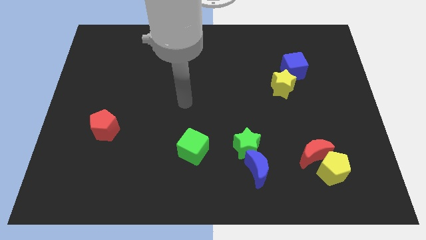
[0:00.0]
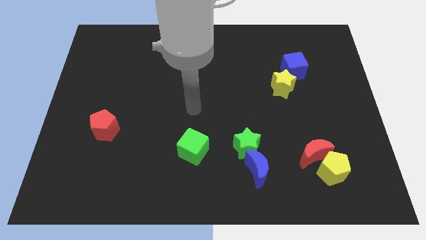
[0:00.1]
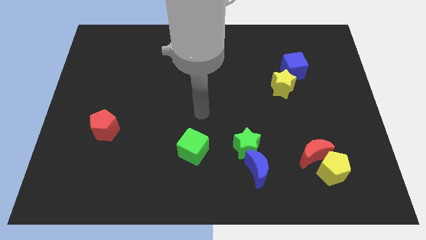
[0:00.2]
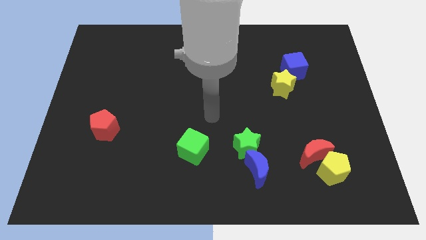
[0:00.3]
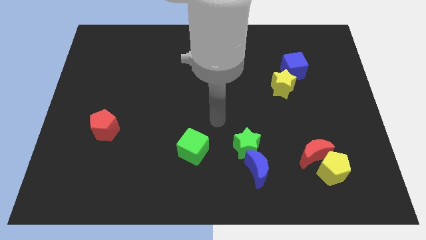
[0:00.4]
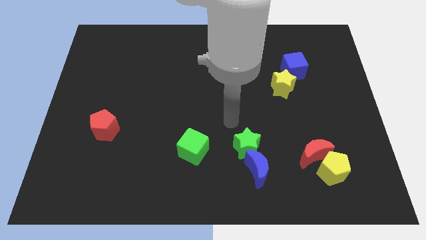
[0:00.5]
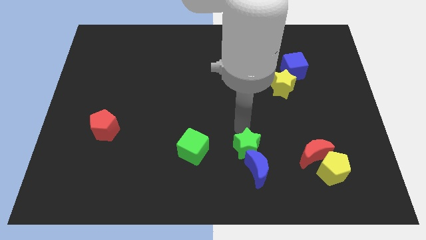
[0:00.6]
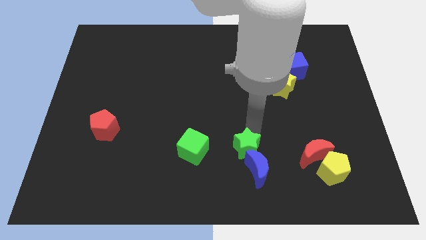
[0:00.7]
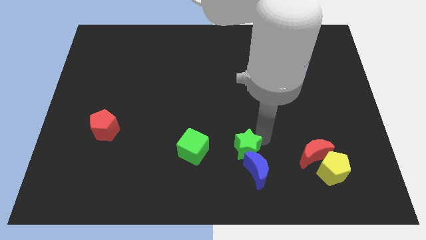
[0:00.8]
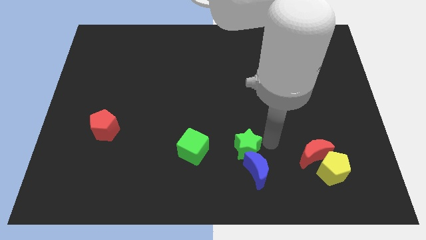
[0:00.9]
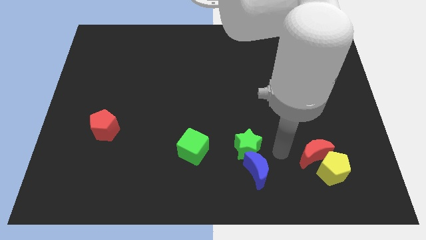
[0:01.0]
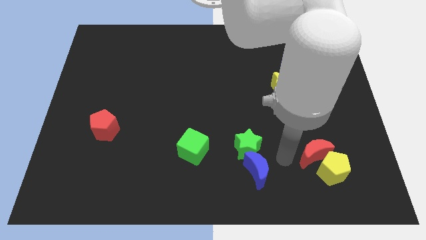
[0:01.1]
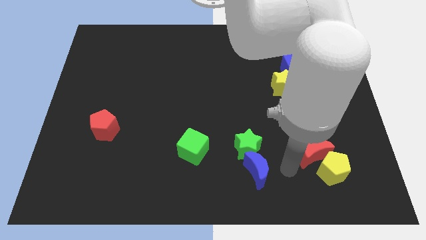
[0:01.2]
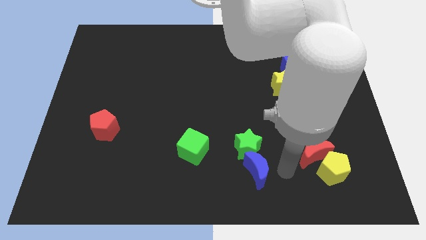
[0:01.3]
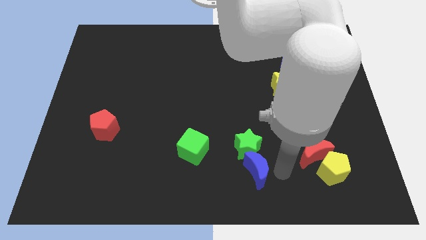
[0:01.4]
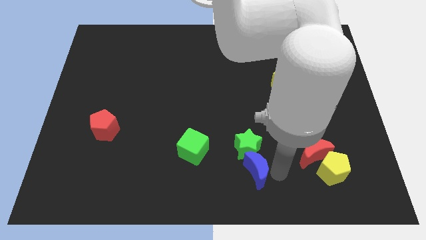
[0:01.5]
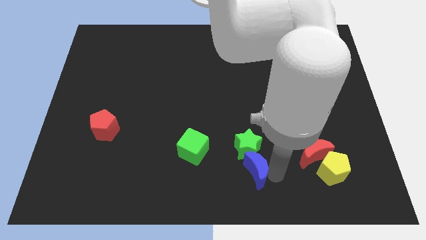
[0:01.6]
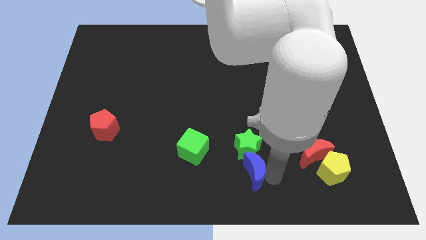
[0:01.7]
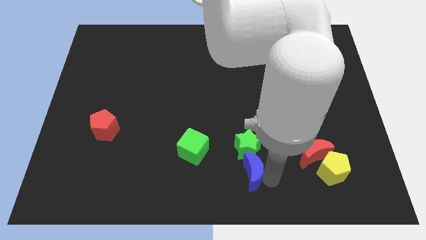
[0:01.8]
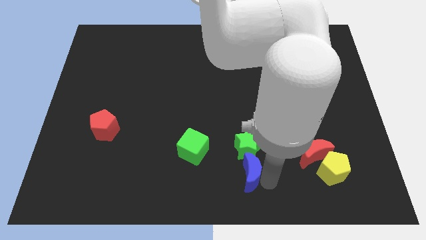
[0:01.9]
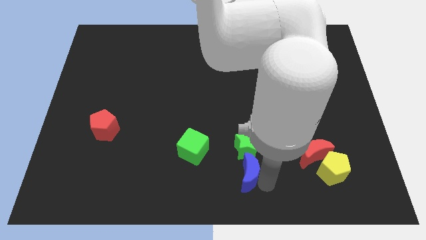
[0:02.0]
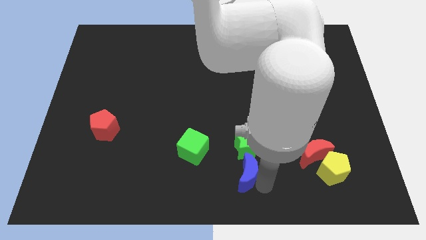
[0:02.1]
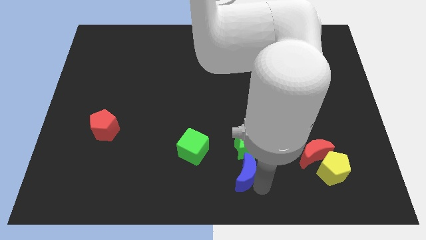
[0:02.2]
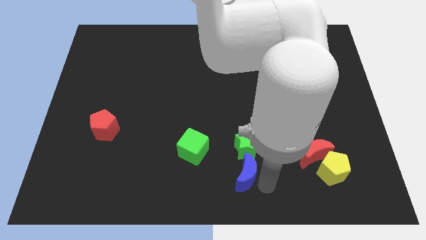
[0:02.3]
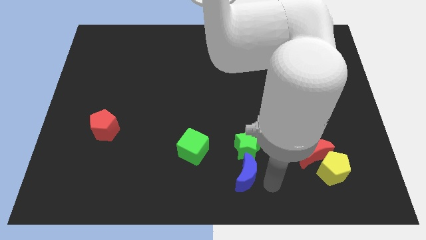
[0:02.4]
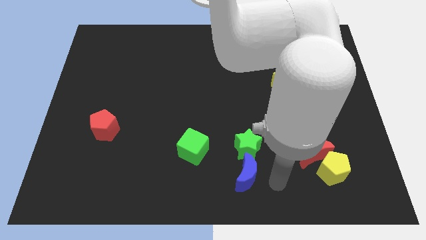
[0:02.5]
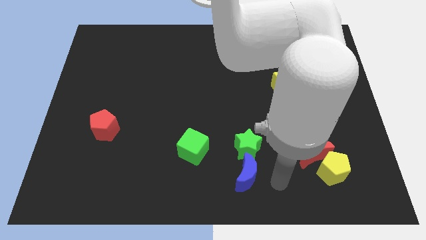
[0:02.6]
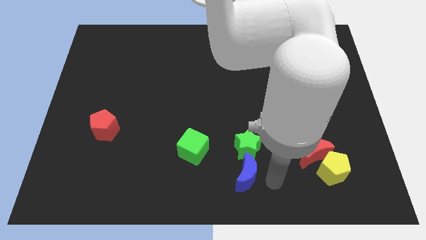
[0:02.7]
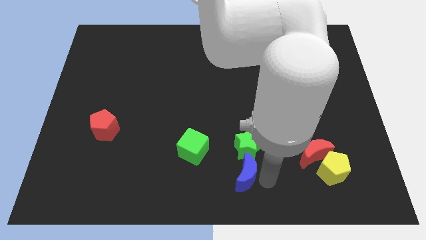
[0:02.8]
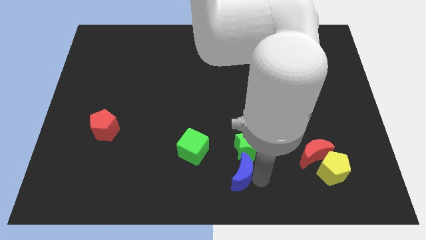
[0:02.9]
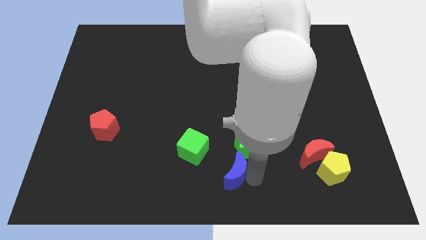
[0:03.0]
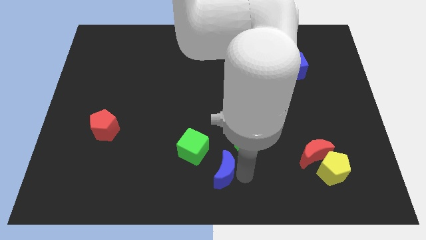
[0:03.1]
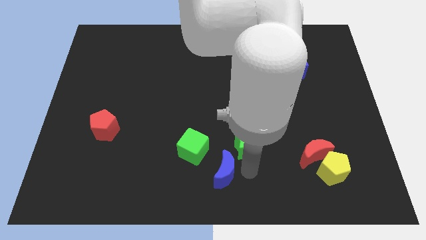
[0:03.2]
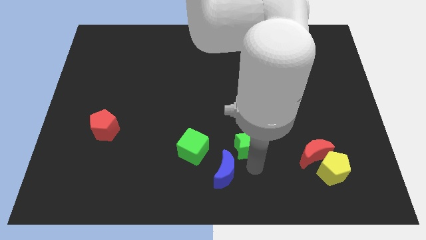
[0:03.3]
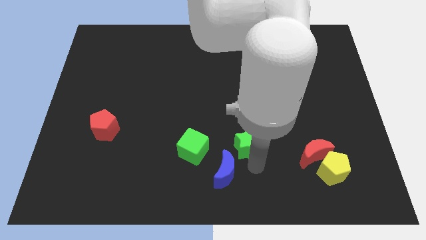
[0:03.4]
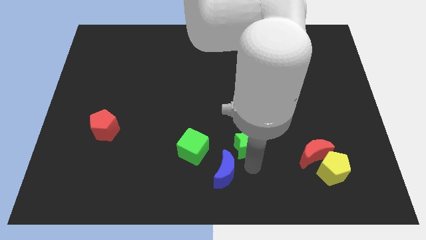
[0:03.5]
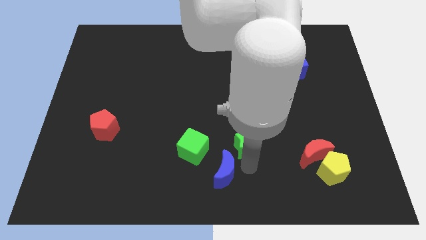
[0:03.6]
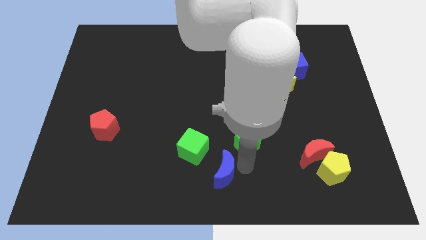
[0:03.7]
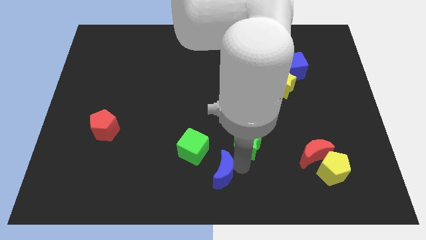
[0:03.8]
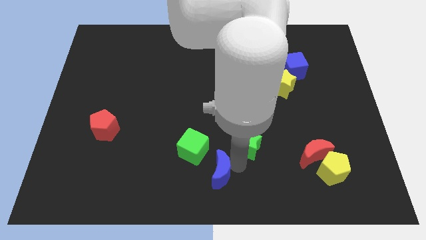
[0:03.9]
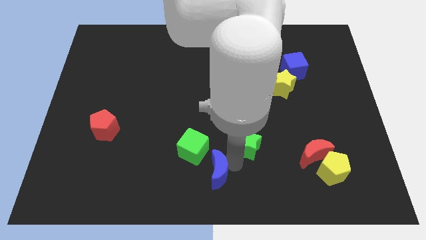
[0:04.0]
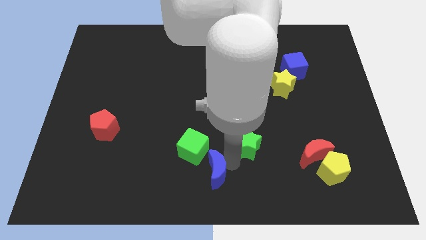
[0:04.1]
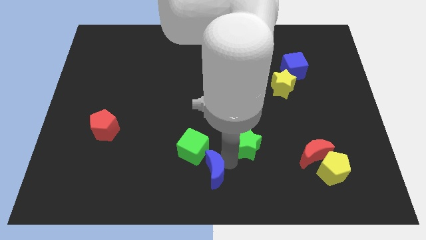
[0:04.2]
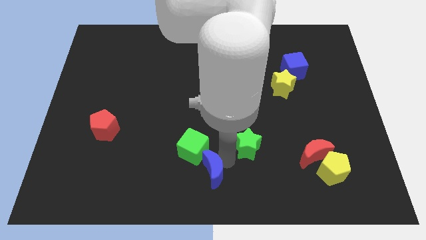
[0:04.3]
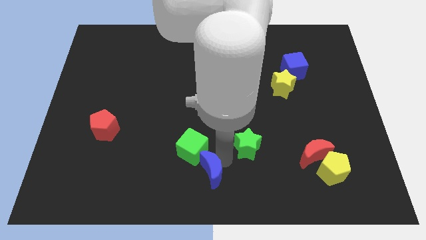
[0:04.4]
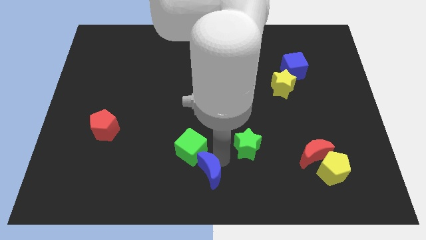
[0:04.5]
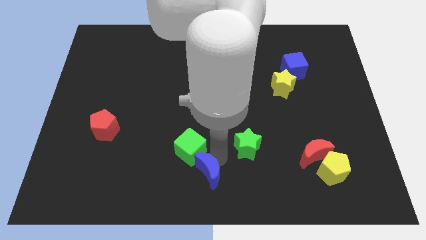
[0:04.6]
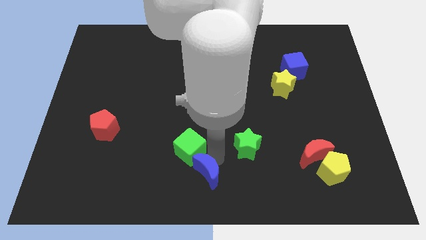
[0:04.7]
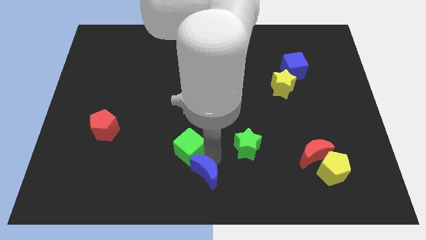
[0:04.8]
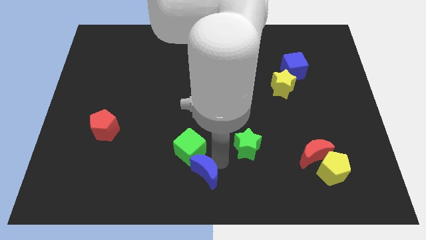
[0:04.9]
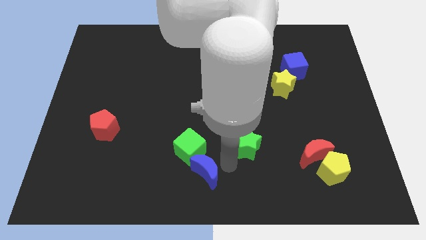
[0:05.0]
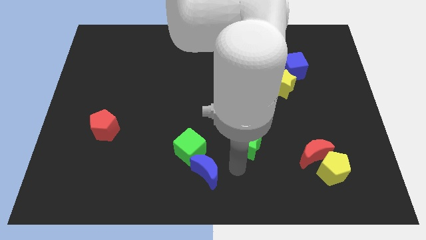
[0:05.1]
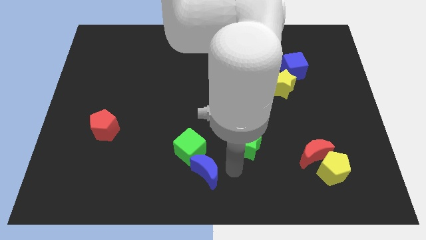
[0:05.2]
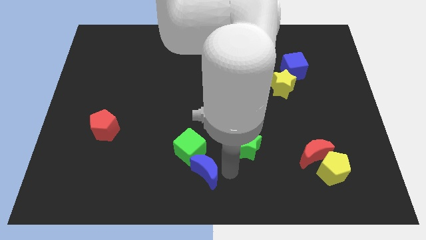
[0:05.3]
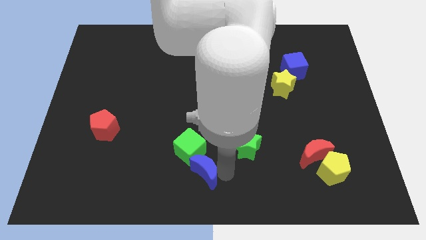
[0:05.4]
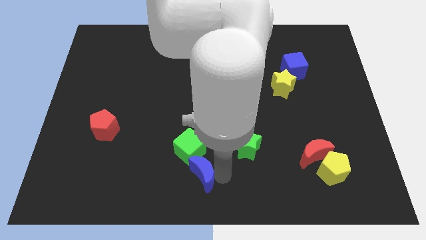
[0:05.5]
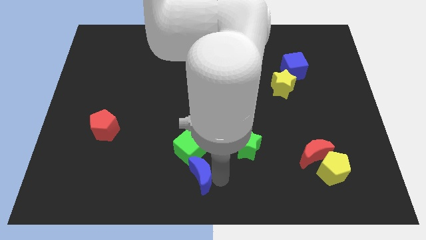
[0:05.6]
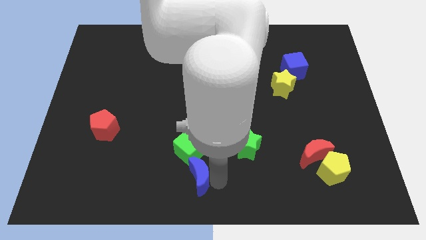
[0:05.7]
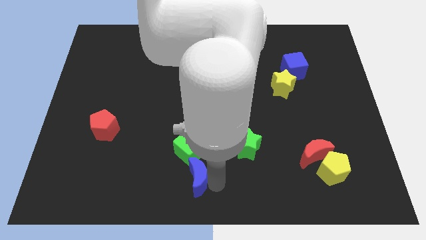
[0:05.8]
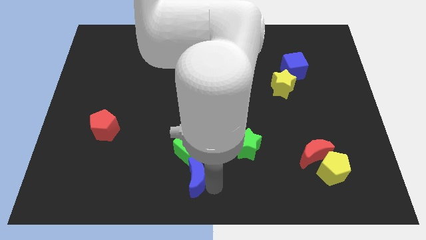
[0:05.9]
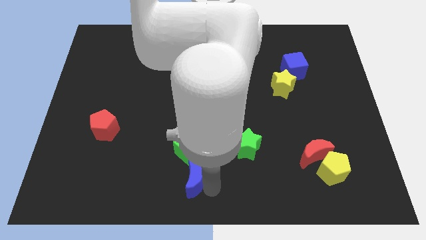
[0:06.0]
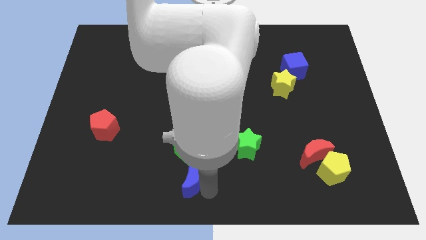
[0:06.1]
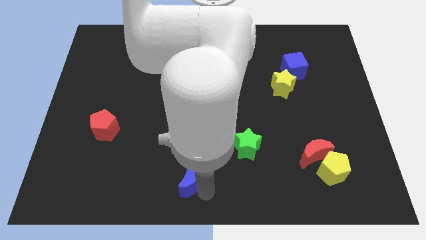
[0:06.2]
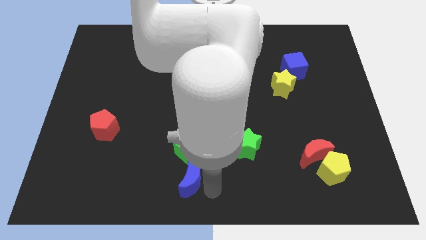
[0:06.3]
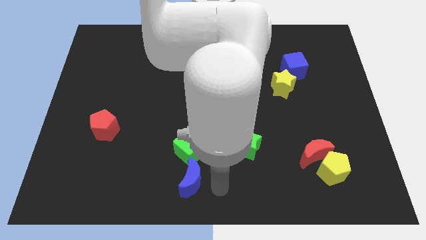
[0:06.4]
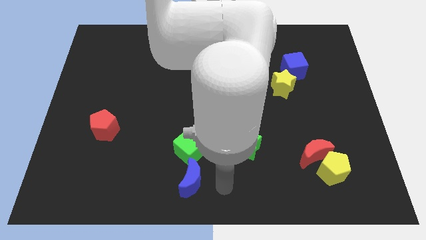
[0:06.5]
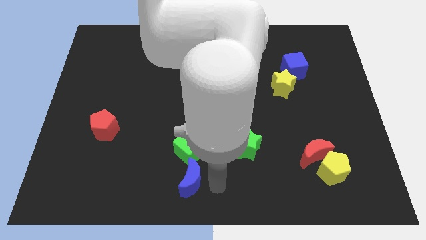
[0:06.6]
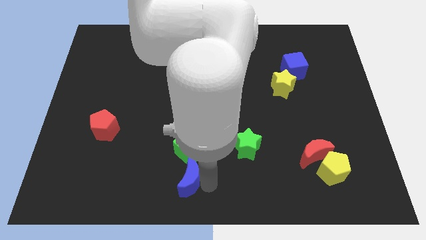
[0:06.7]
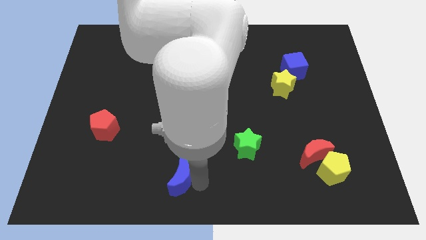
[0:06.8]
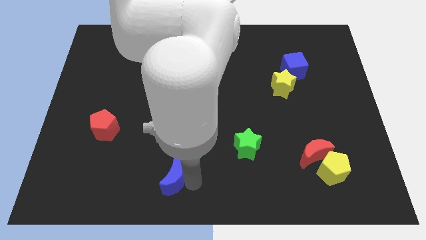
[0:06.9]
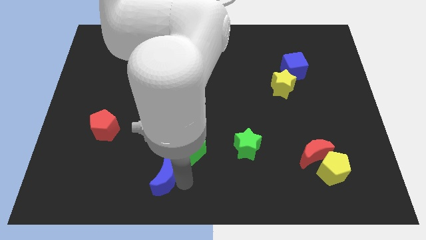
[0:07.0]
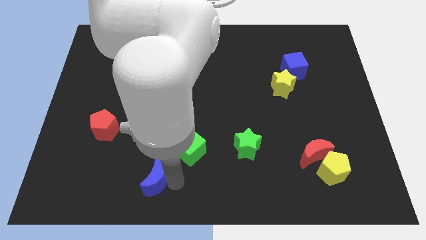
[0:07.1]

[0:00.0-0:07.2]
move the blue moon to the left

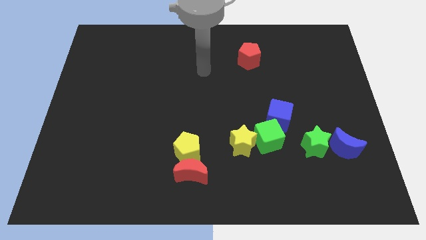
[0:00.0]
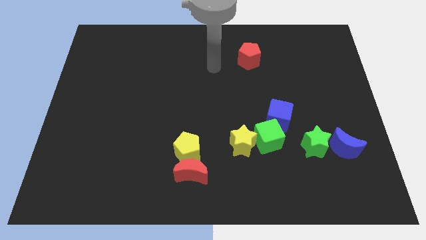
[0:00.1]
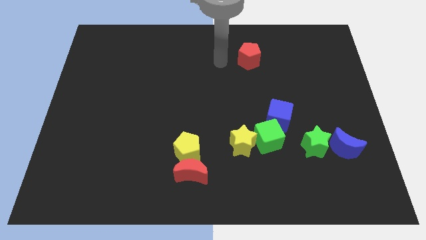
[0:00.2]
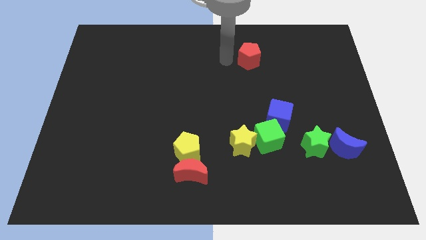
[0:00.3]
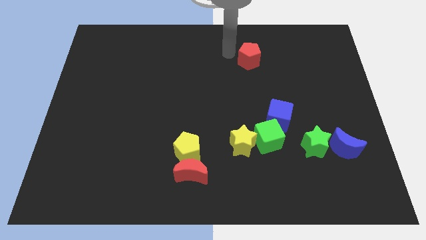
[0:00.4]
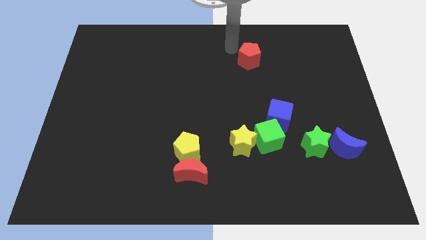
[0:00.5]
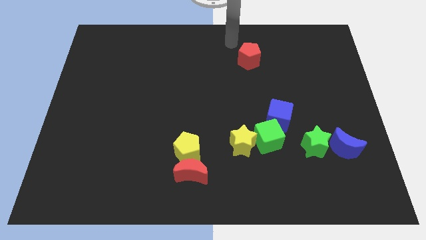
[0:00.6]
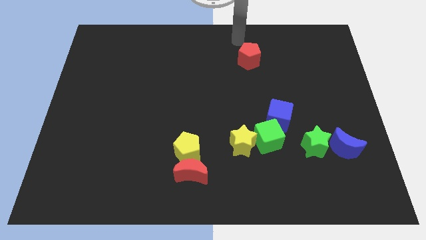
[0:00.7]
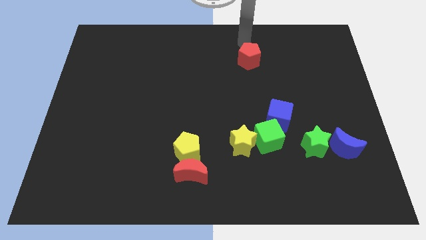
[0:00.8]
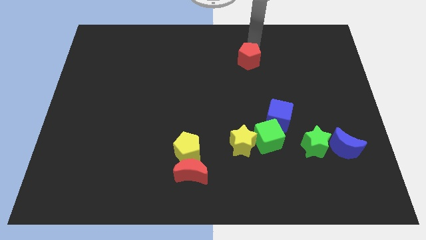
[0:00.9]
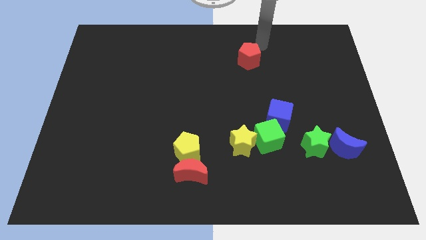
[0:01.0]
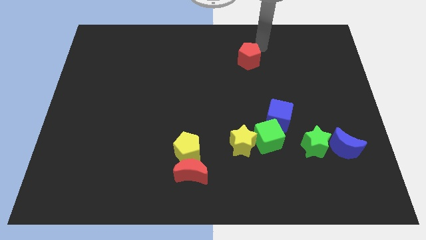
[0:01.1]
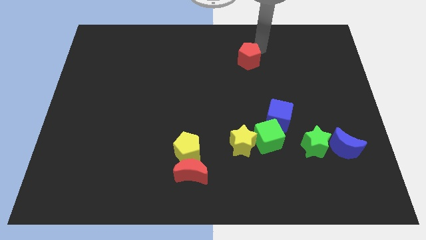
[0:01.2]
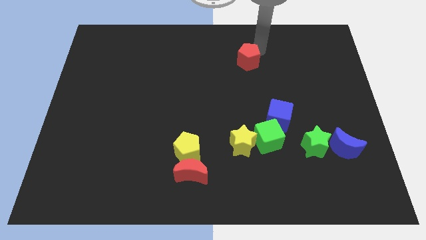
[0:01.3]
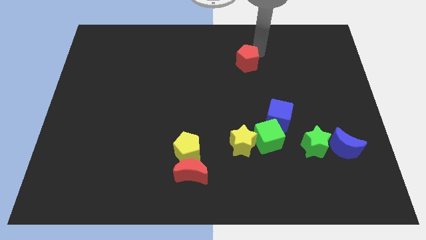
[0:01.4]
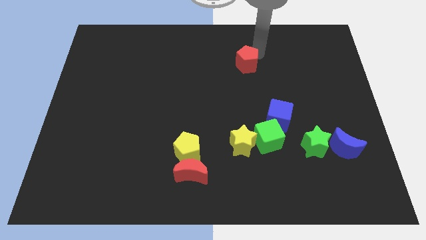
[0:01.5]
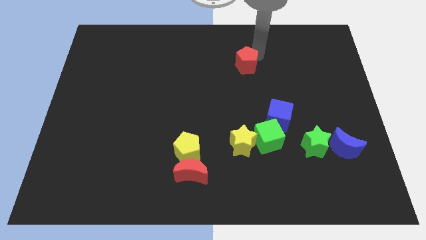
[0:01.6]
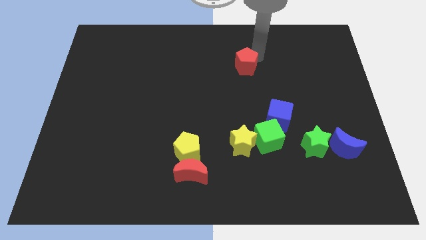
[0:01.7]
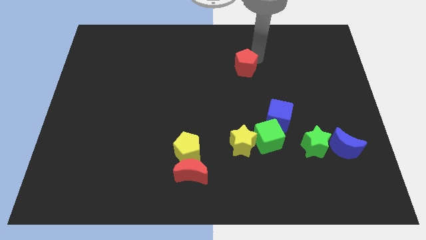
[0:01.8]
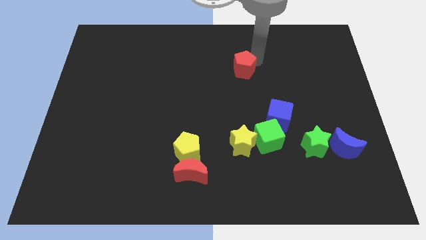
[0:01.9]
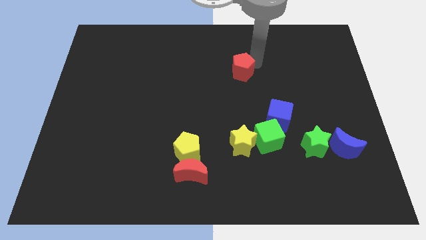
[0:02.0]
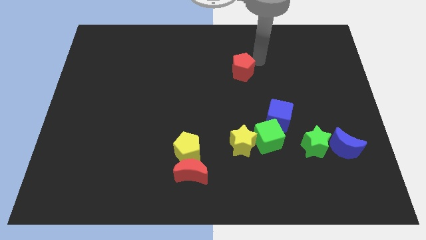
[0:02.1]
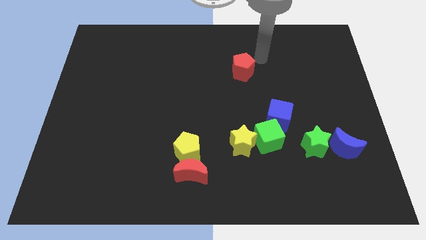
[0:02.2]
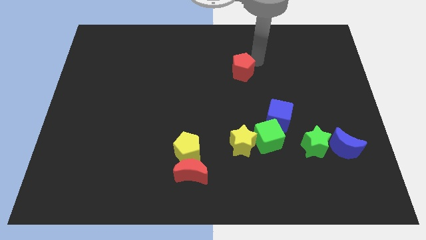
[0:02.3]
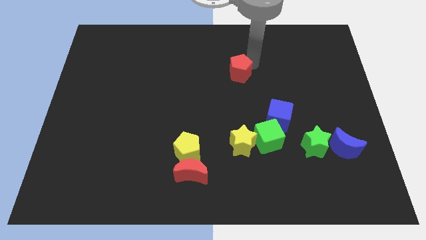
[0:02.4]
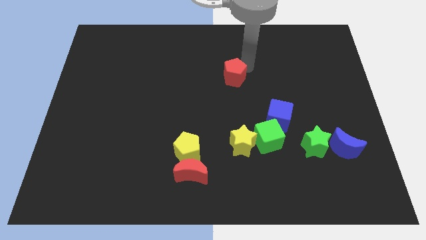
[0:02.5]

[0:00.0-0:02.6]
slightly move the red pentagon downwards and then to the left
